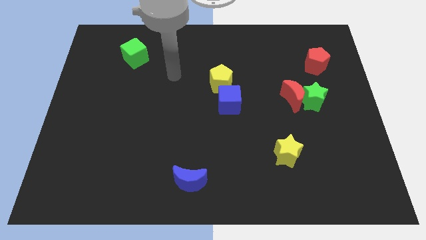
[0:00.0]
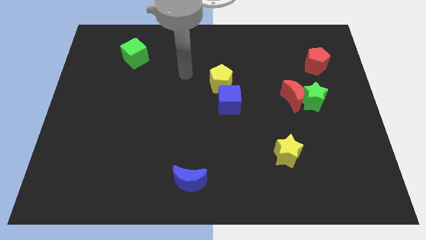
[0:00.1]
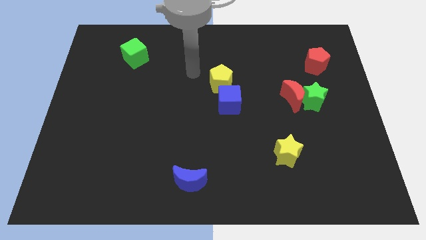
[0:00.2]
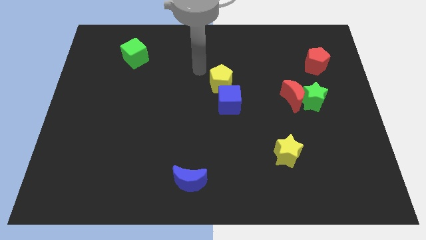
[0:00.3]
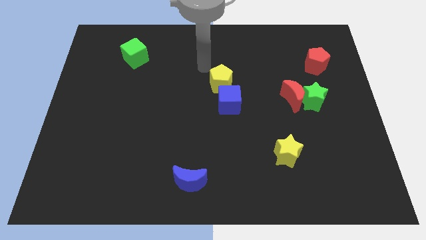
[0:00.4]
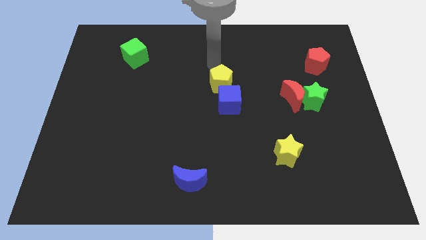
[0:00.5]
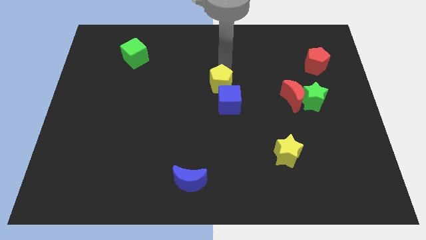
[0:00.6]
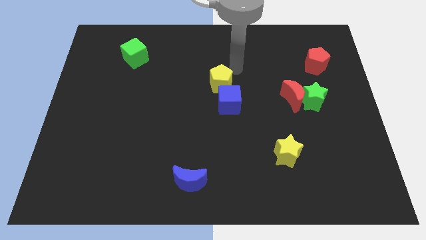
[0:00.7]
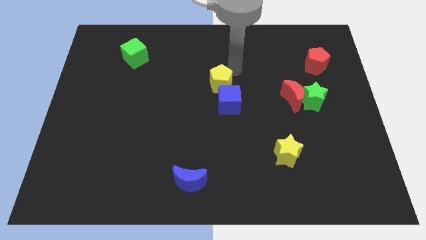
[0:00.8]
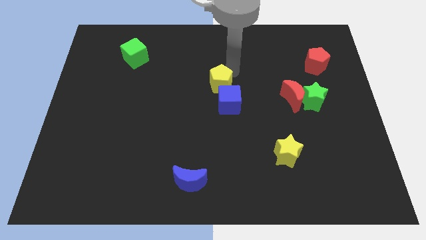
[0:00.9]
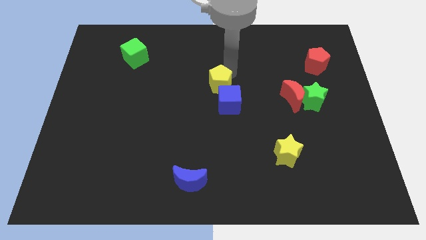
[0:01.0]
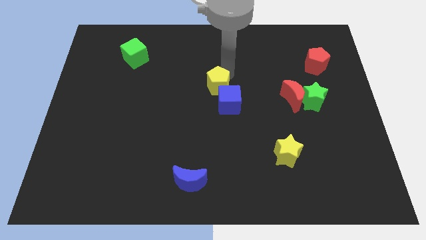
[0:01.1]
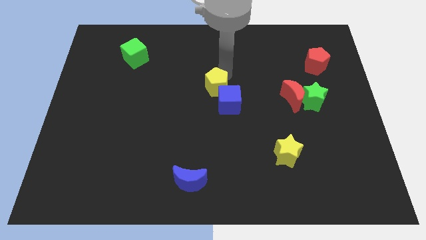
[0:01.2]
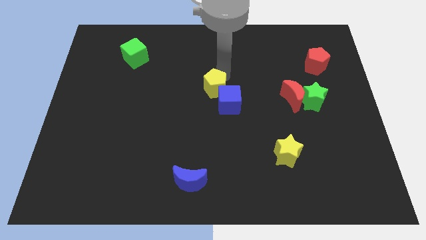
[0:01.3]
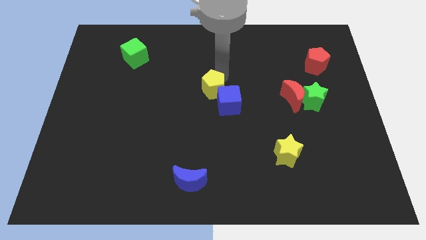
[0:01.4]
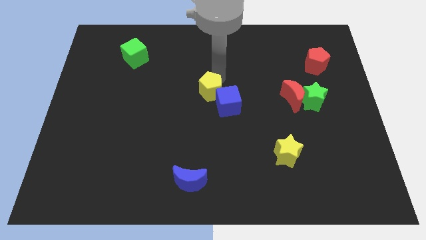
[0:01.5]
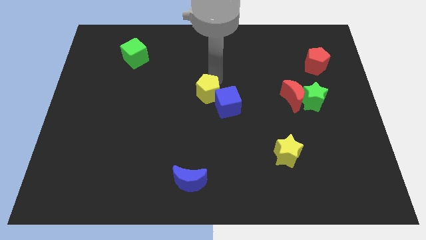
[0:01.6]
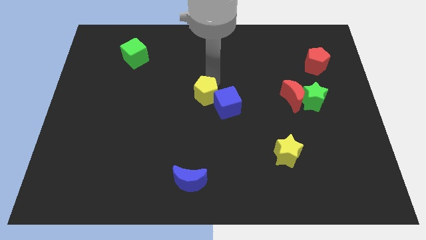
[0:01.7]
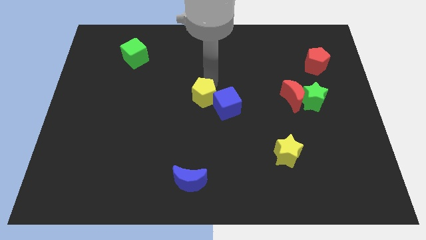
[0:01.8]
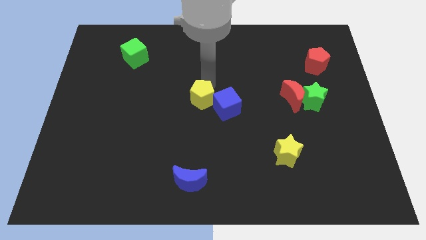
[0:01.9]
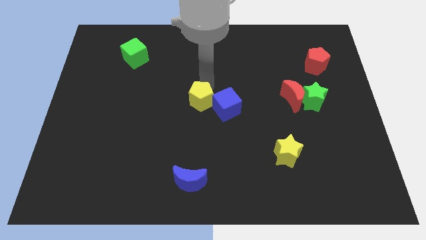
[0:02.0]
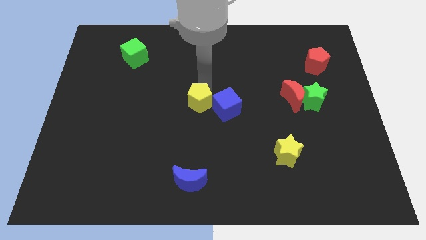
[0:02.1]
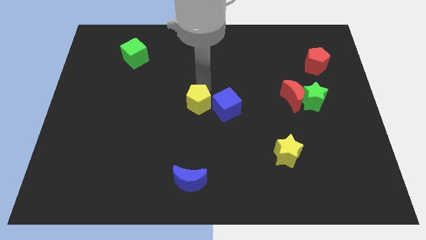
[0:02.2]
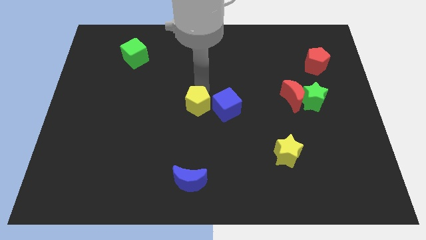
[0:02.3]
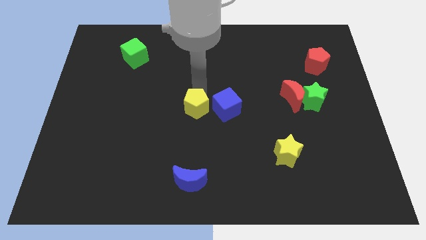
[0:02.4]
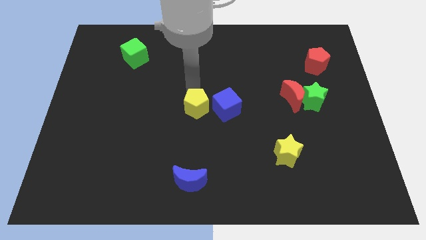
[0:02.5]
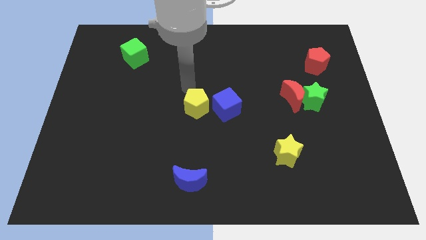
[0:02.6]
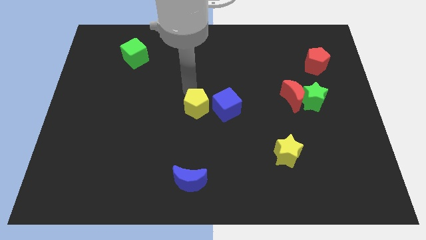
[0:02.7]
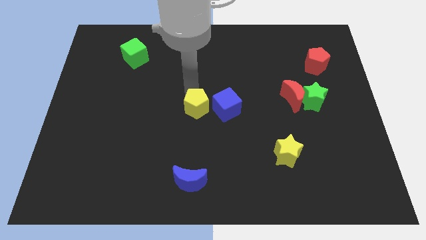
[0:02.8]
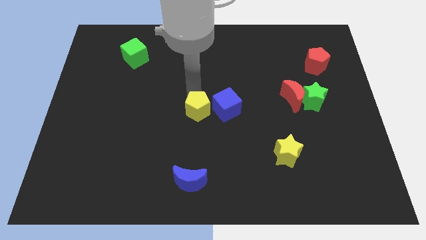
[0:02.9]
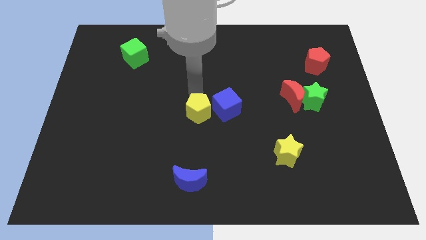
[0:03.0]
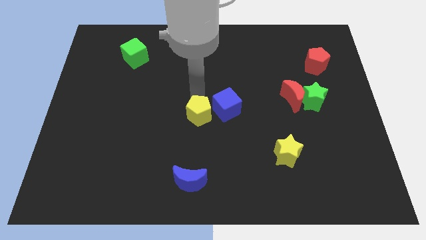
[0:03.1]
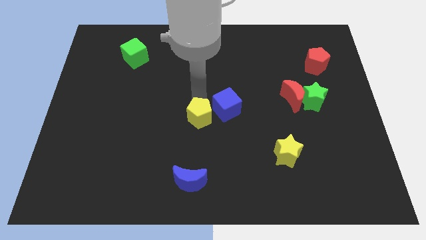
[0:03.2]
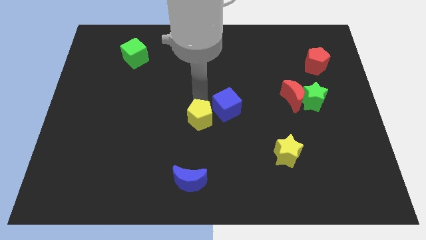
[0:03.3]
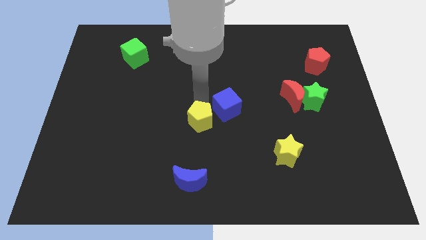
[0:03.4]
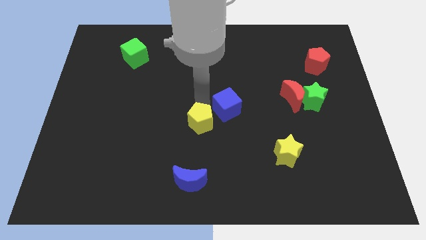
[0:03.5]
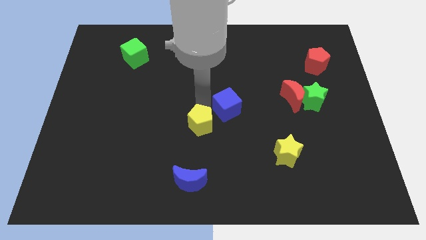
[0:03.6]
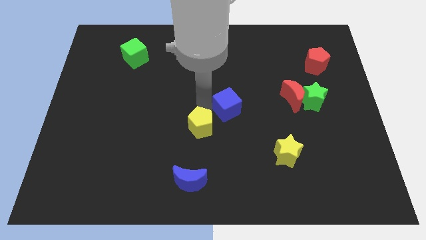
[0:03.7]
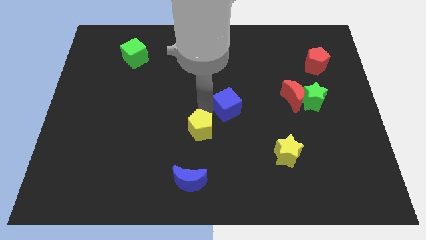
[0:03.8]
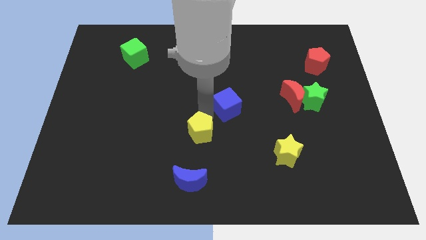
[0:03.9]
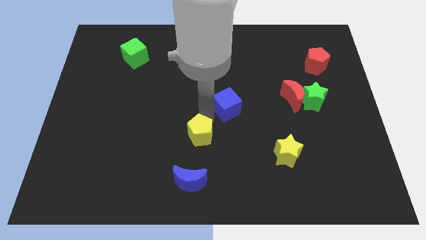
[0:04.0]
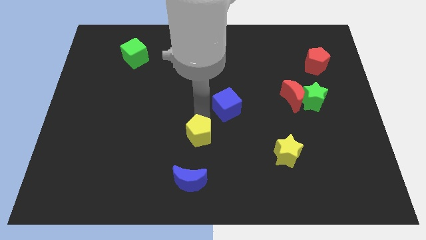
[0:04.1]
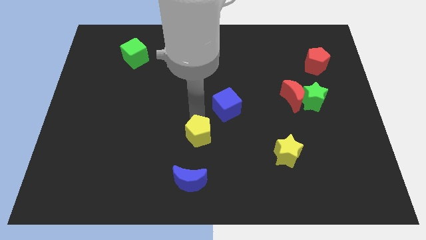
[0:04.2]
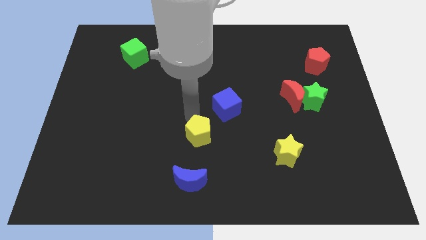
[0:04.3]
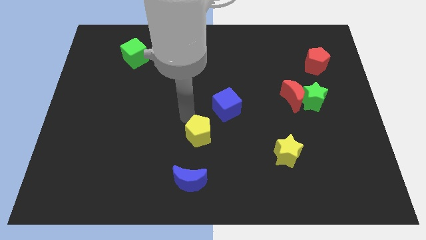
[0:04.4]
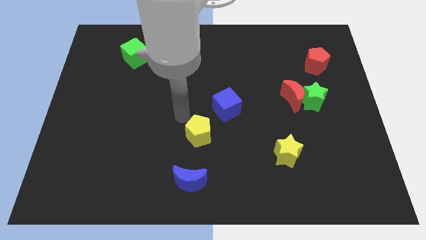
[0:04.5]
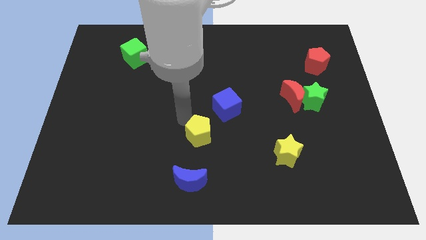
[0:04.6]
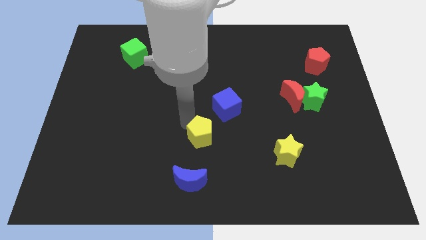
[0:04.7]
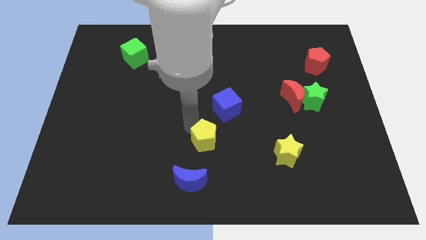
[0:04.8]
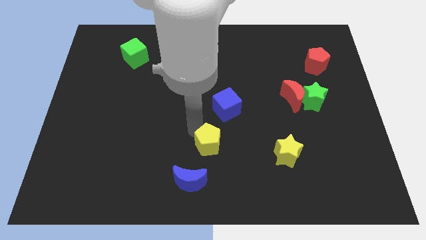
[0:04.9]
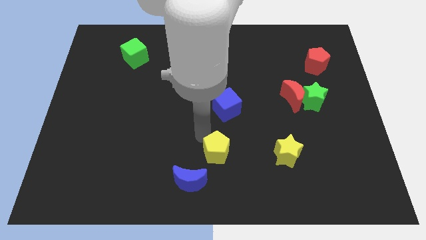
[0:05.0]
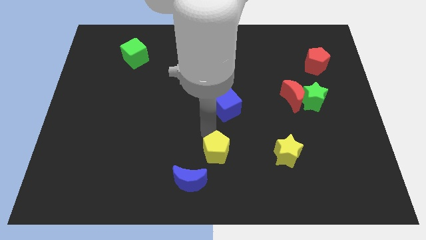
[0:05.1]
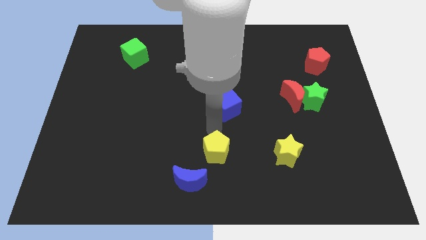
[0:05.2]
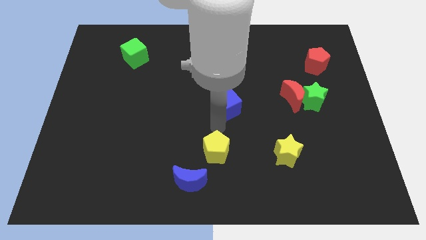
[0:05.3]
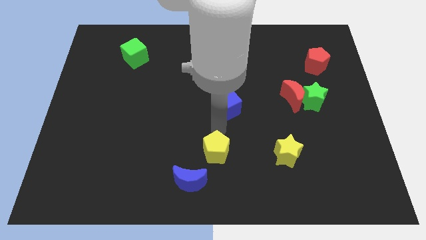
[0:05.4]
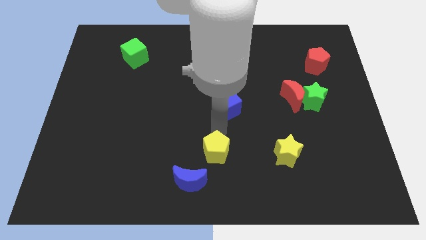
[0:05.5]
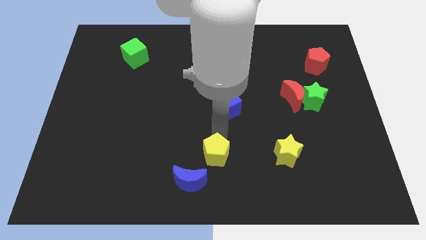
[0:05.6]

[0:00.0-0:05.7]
put the yellow pentagon to the bottom
